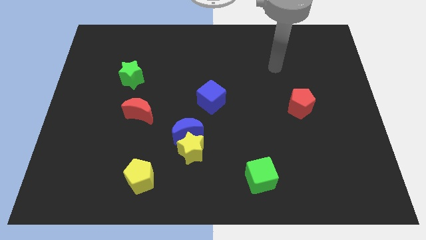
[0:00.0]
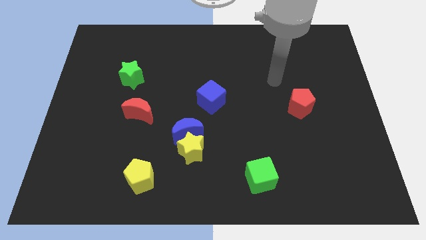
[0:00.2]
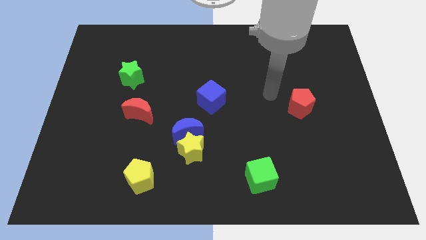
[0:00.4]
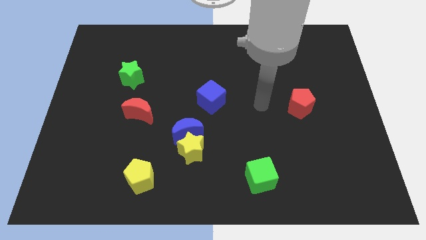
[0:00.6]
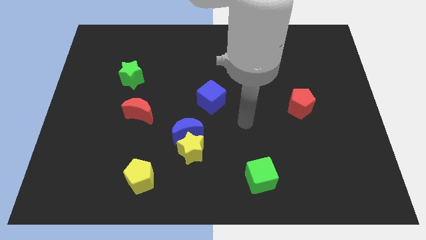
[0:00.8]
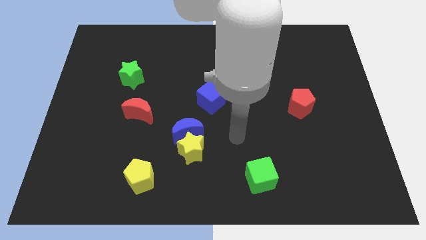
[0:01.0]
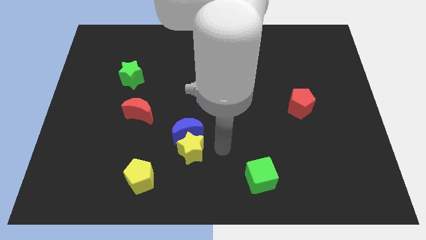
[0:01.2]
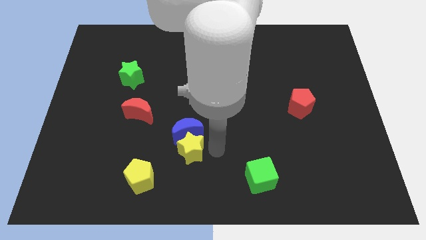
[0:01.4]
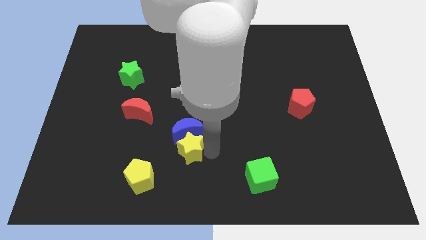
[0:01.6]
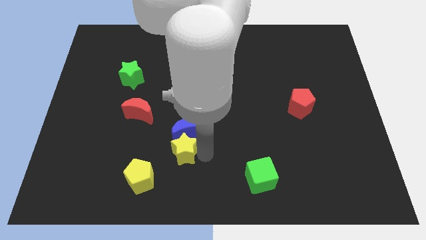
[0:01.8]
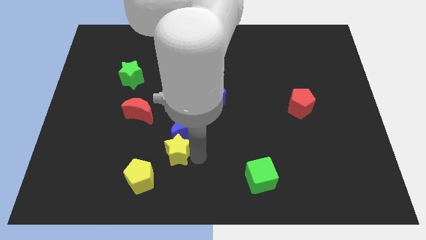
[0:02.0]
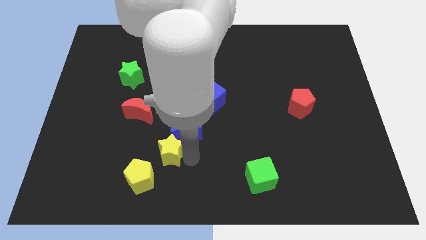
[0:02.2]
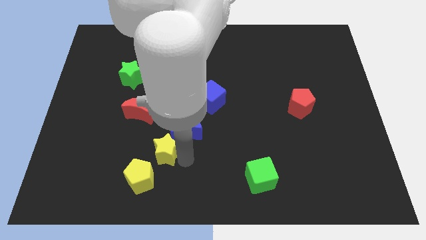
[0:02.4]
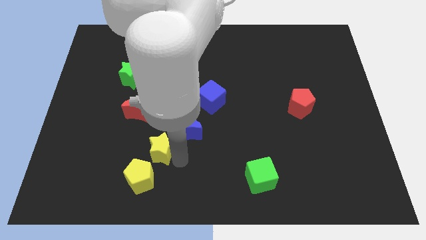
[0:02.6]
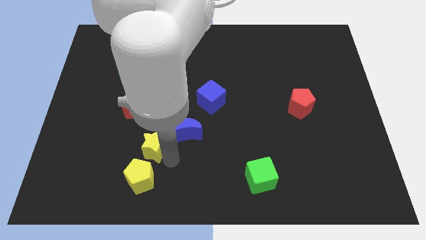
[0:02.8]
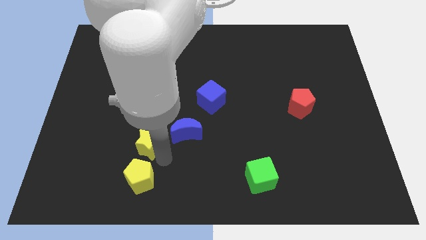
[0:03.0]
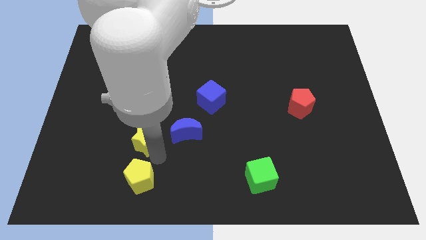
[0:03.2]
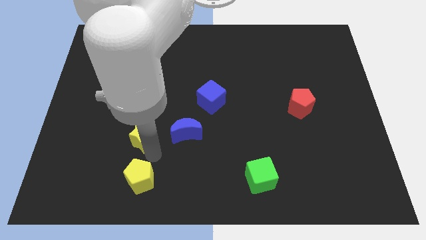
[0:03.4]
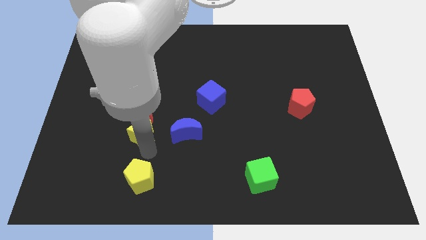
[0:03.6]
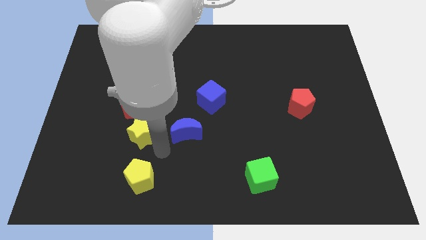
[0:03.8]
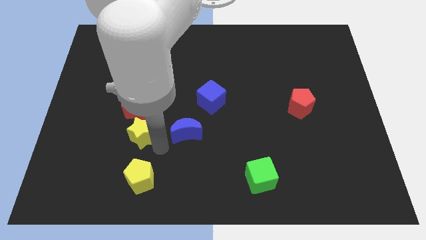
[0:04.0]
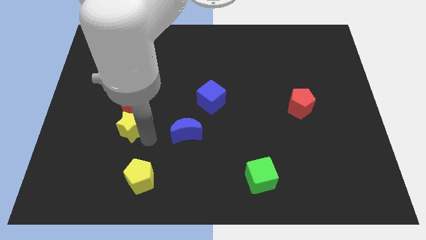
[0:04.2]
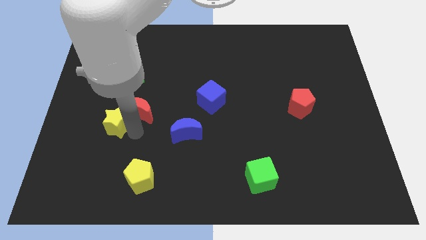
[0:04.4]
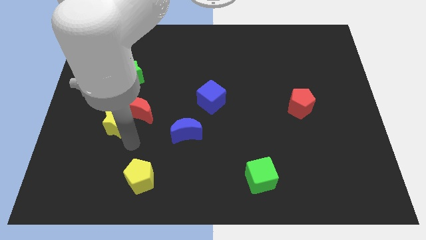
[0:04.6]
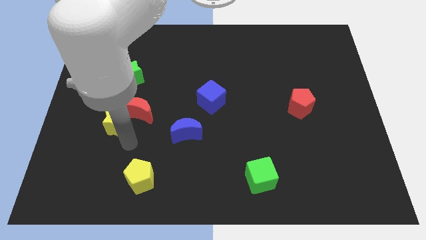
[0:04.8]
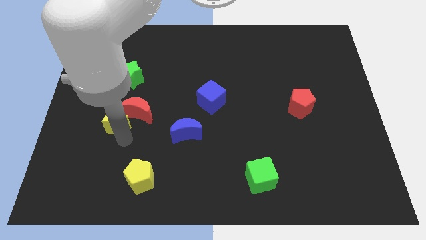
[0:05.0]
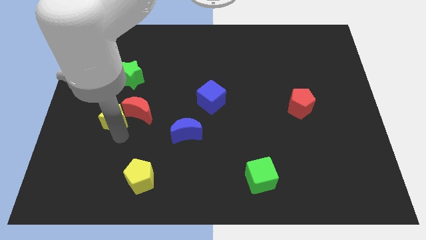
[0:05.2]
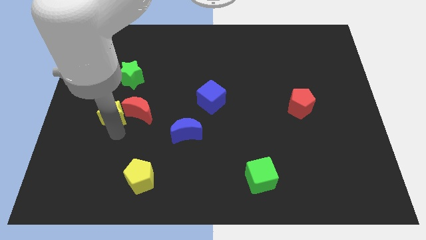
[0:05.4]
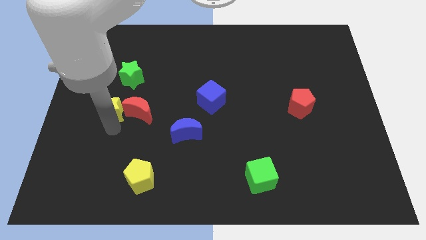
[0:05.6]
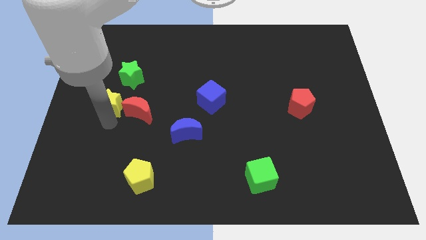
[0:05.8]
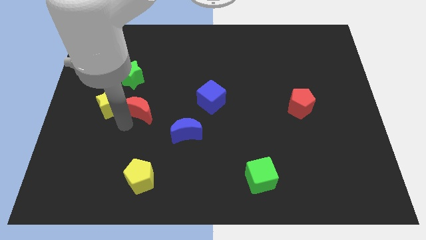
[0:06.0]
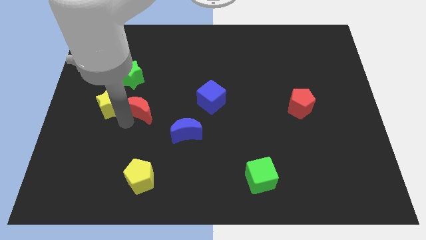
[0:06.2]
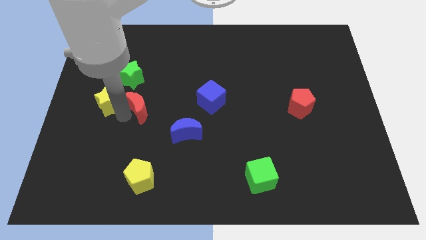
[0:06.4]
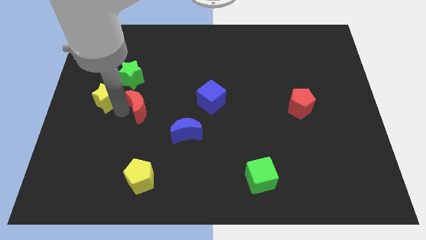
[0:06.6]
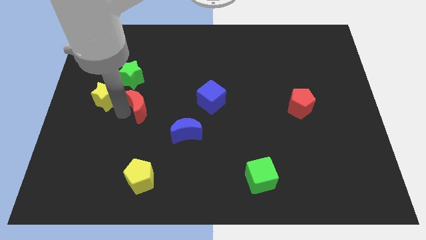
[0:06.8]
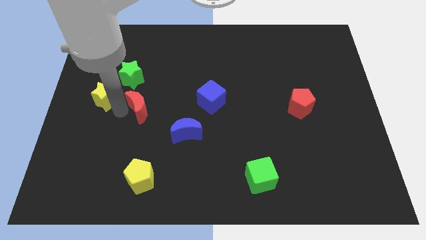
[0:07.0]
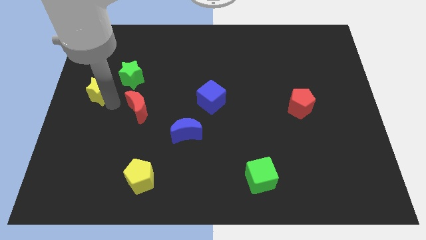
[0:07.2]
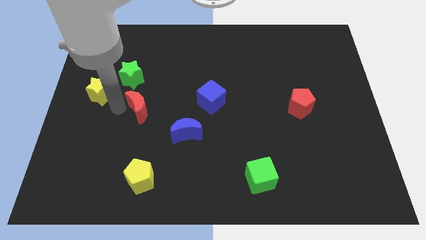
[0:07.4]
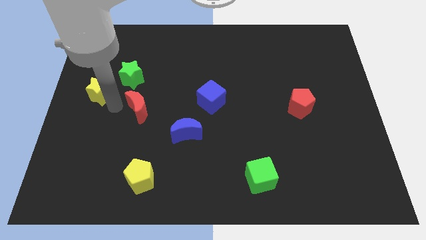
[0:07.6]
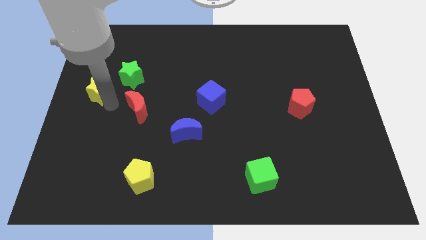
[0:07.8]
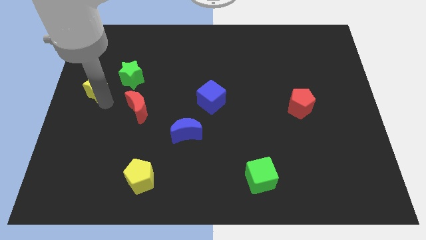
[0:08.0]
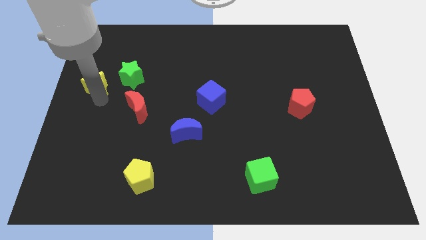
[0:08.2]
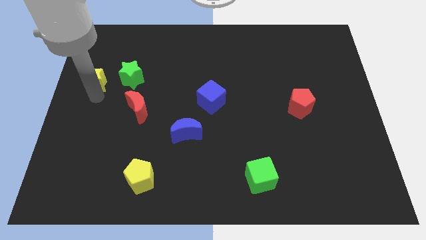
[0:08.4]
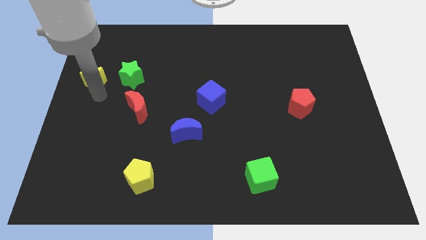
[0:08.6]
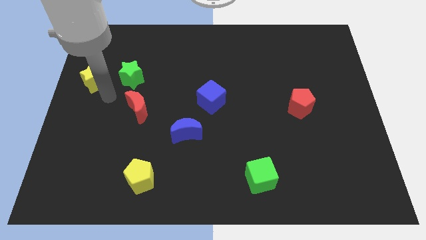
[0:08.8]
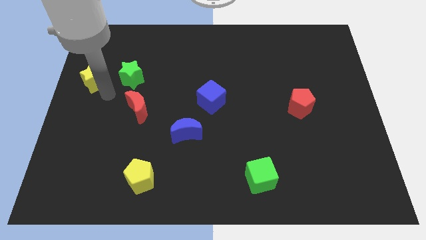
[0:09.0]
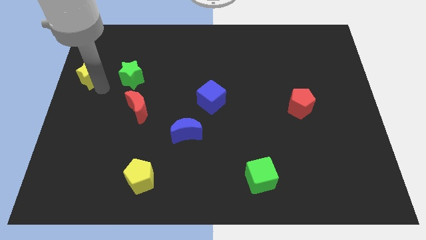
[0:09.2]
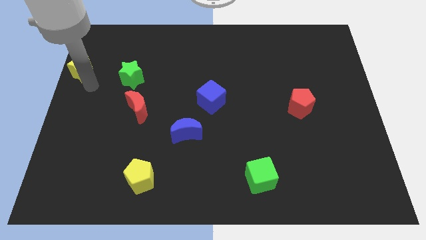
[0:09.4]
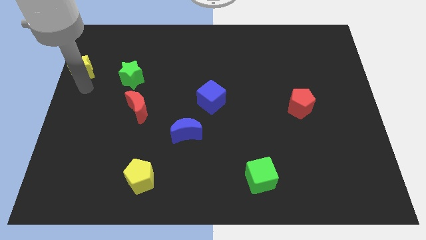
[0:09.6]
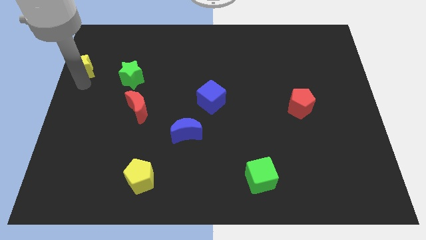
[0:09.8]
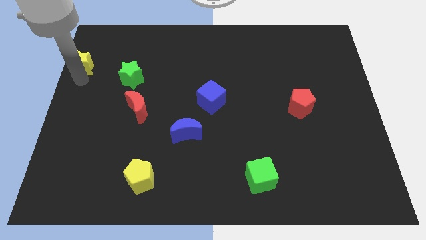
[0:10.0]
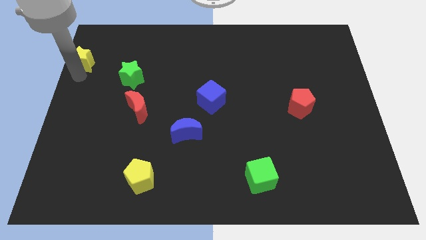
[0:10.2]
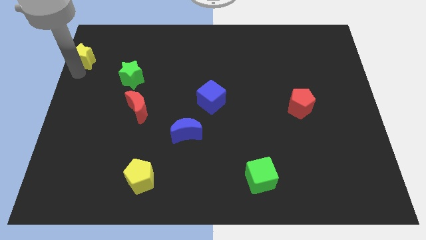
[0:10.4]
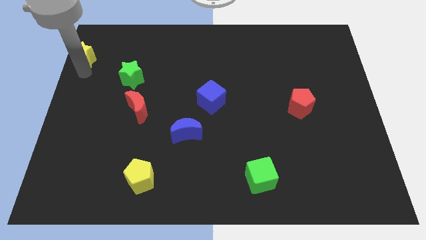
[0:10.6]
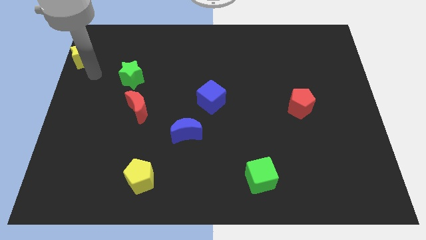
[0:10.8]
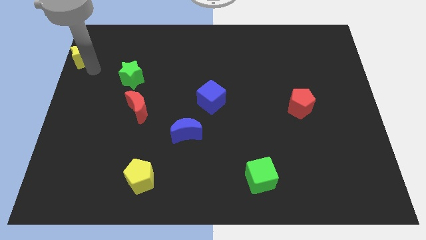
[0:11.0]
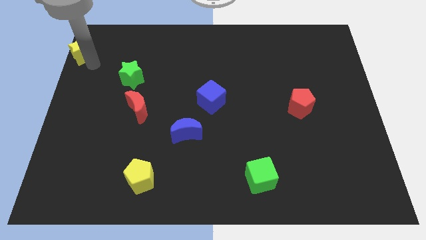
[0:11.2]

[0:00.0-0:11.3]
push the yellow star to the upper left corner

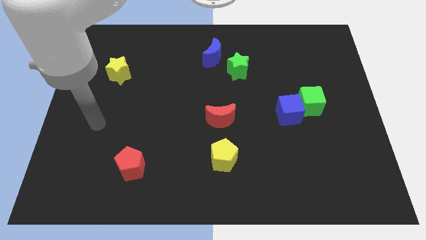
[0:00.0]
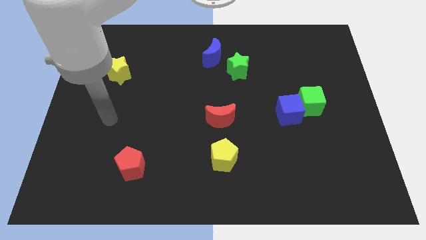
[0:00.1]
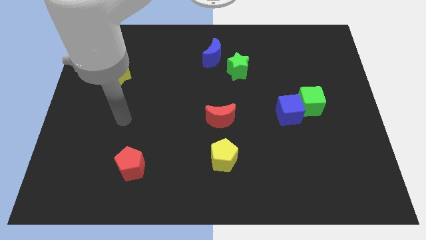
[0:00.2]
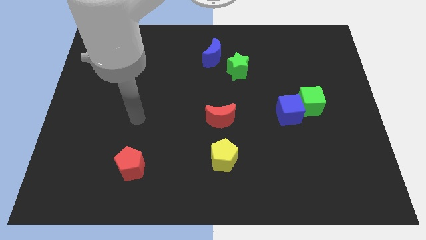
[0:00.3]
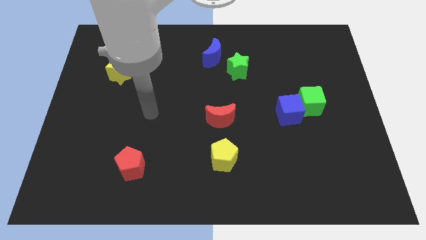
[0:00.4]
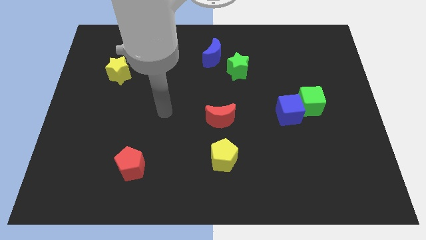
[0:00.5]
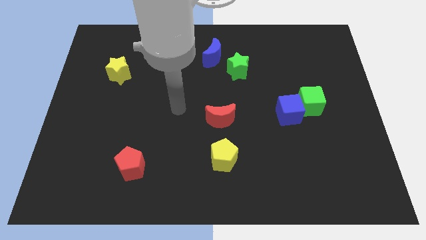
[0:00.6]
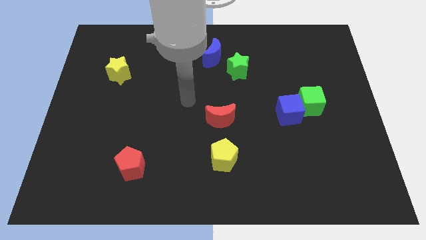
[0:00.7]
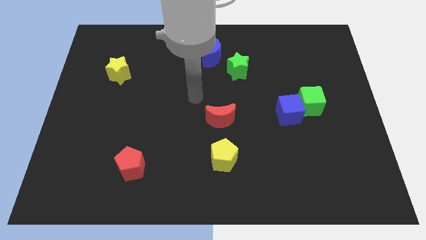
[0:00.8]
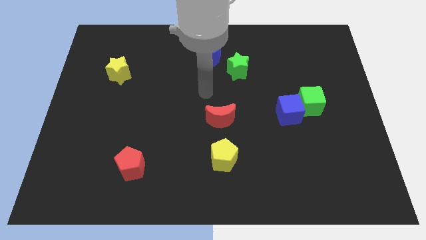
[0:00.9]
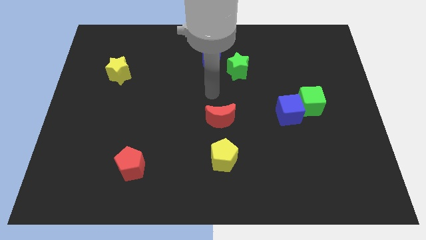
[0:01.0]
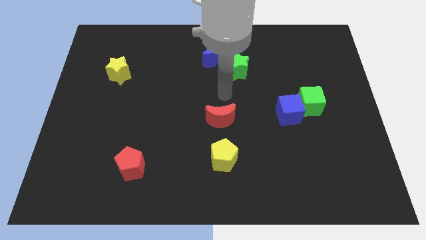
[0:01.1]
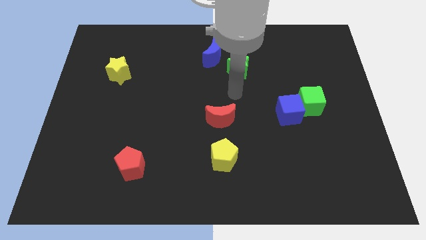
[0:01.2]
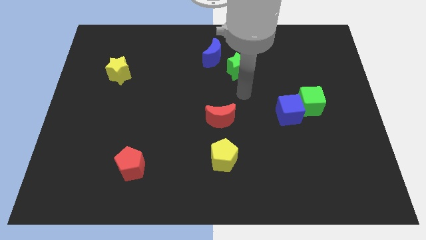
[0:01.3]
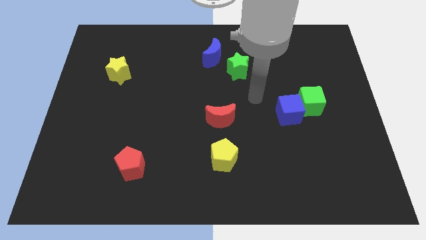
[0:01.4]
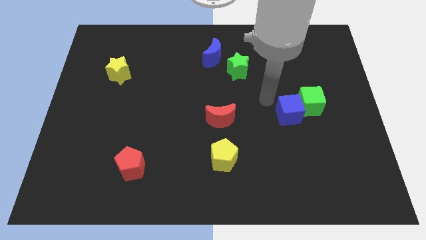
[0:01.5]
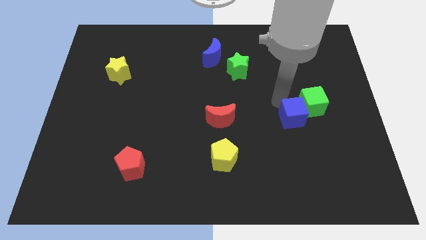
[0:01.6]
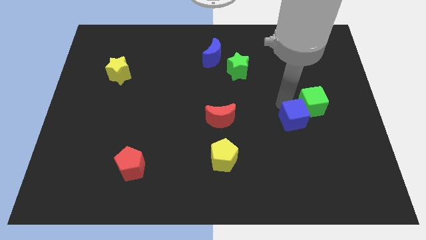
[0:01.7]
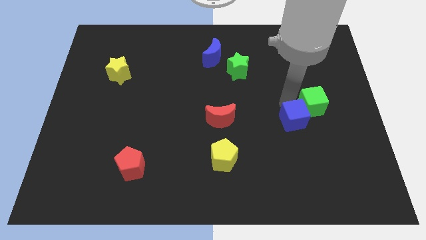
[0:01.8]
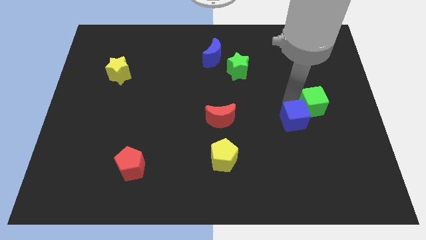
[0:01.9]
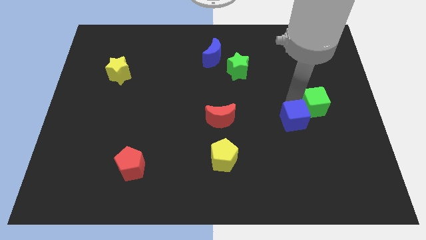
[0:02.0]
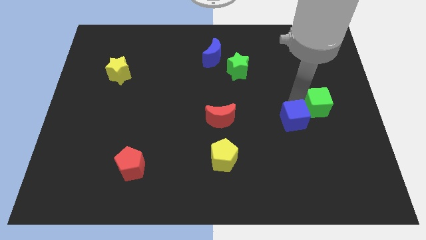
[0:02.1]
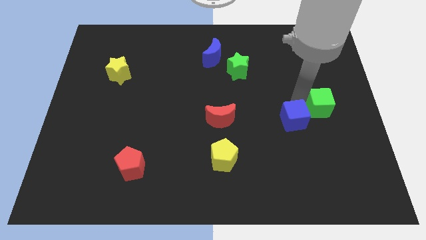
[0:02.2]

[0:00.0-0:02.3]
push the green cube to the right side of the board
